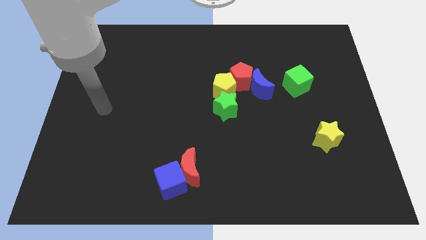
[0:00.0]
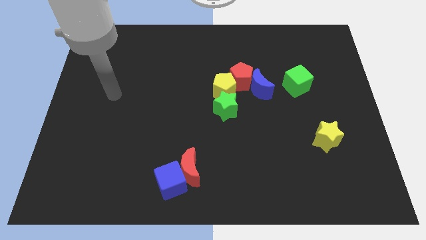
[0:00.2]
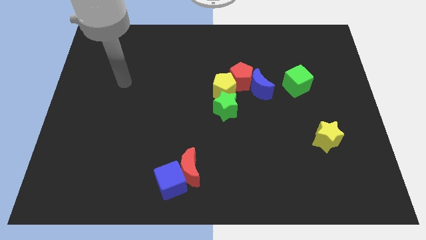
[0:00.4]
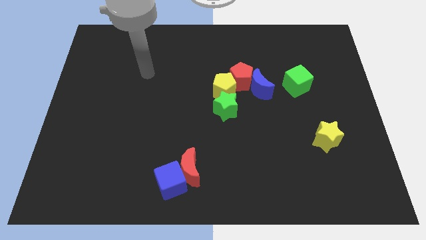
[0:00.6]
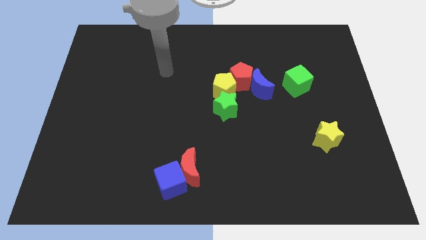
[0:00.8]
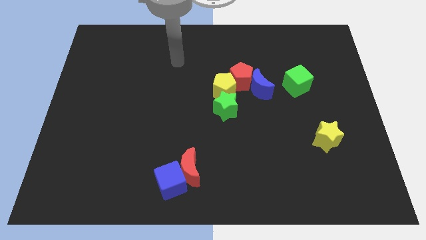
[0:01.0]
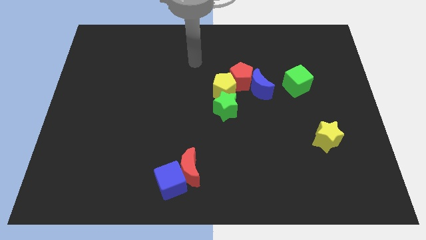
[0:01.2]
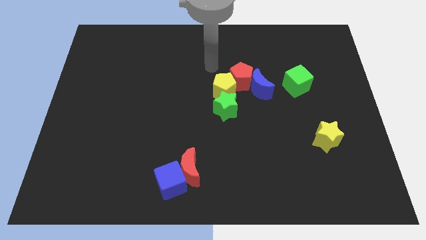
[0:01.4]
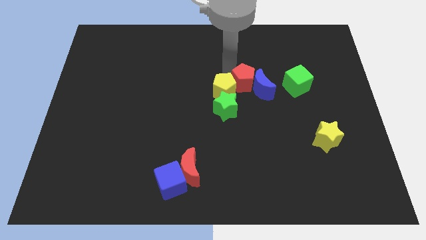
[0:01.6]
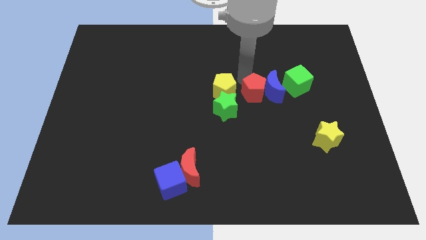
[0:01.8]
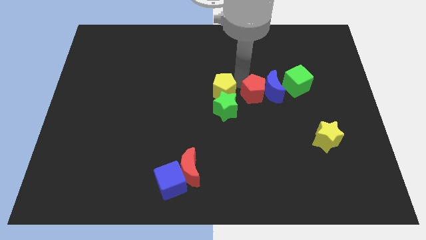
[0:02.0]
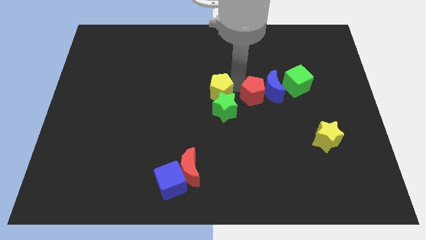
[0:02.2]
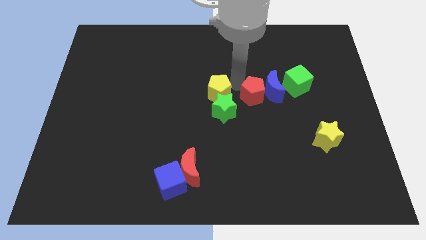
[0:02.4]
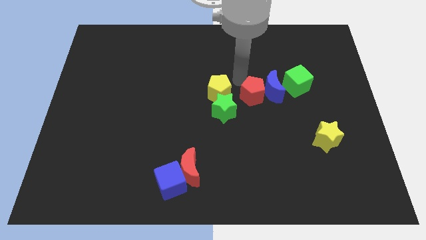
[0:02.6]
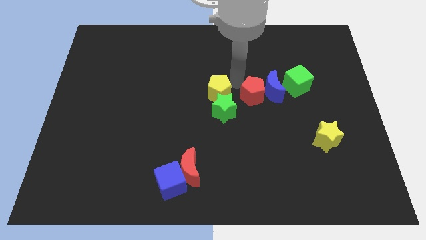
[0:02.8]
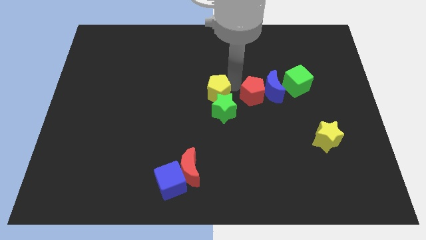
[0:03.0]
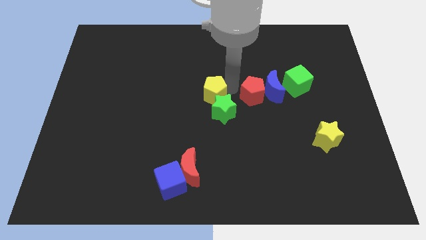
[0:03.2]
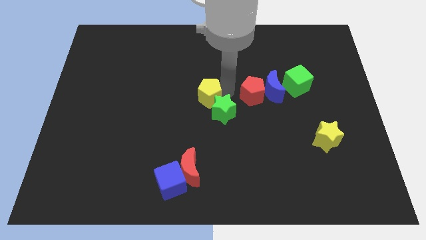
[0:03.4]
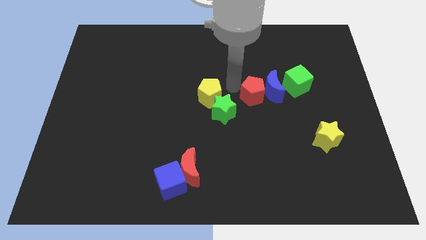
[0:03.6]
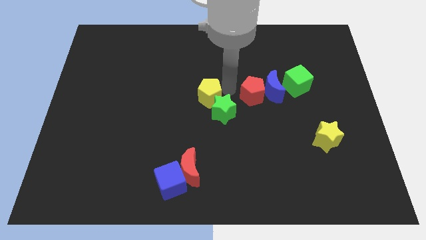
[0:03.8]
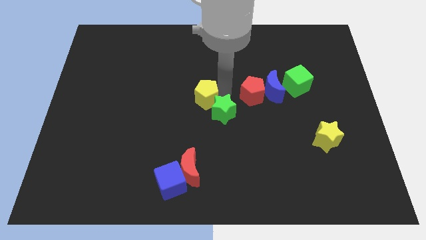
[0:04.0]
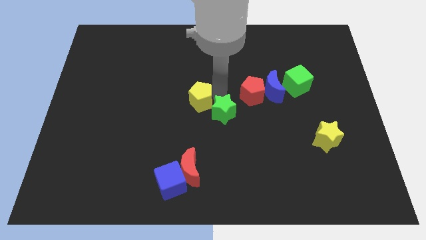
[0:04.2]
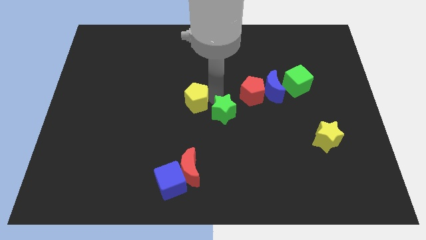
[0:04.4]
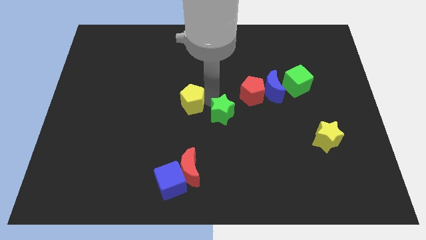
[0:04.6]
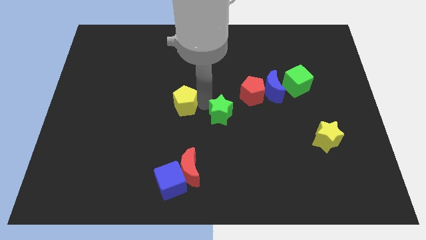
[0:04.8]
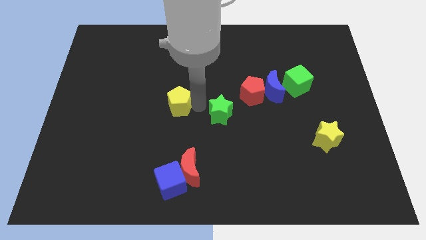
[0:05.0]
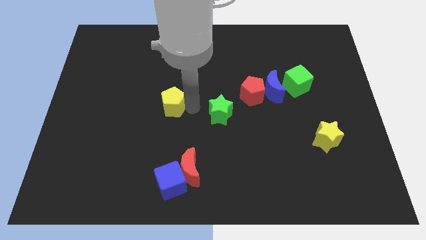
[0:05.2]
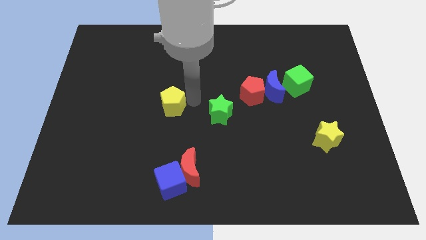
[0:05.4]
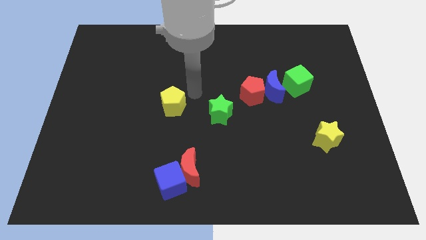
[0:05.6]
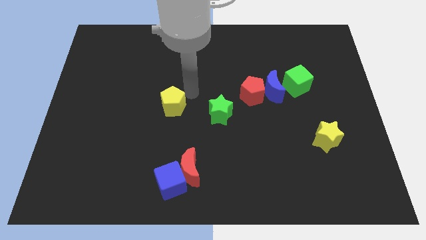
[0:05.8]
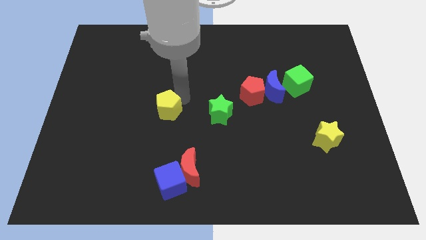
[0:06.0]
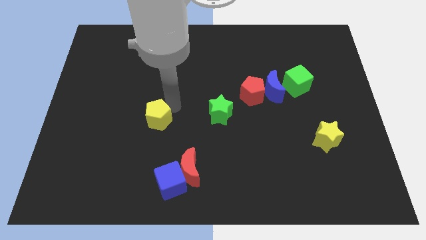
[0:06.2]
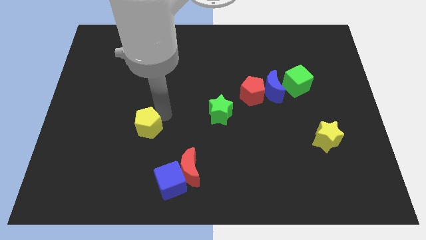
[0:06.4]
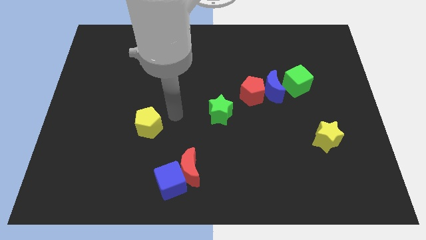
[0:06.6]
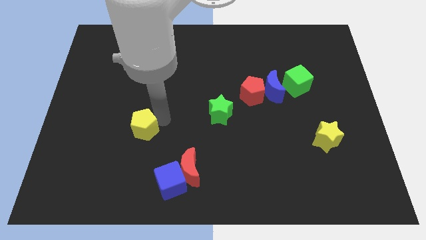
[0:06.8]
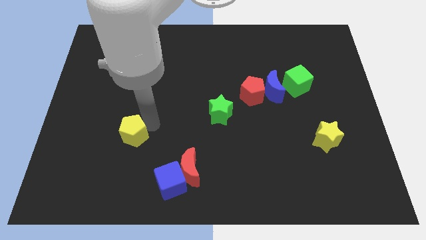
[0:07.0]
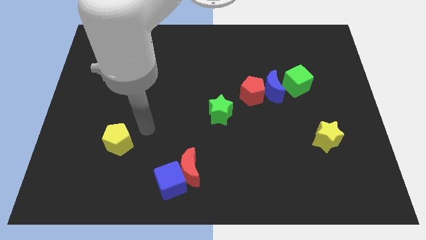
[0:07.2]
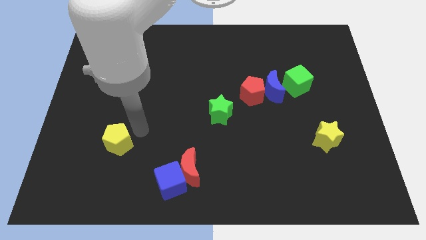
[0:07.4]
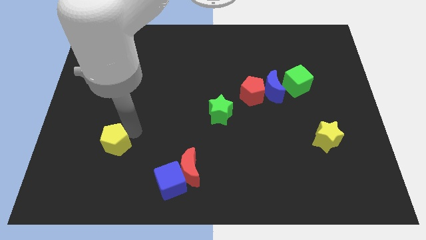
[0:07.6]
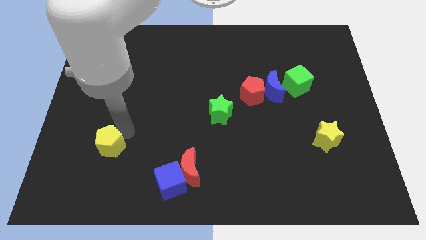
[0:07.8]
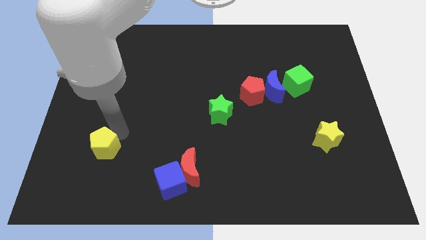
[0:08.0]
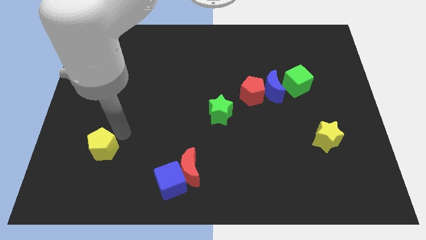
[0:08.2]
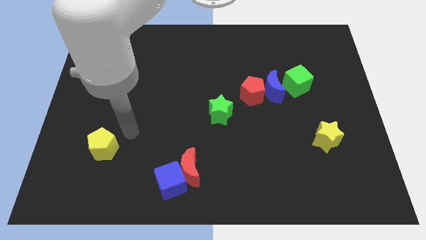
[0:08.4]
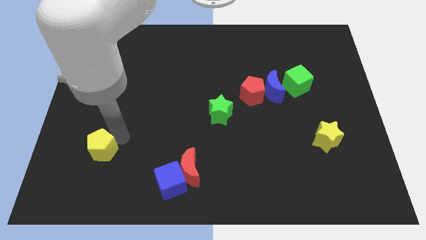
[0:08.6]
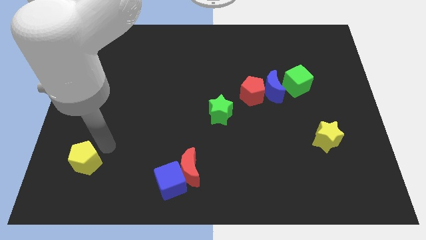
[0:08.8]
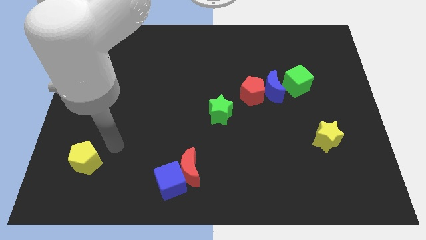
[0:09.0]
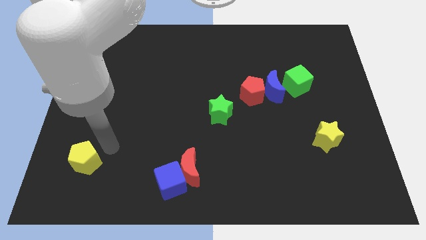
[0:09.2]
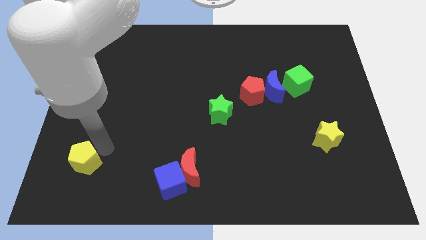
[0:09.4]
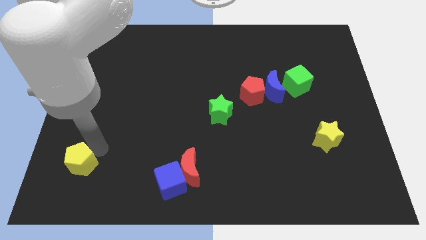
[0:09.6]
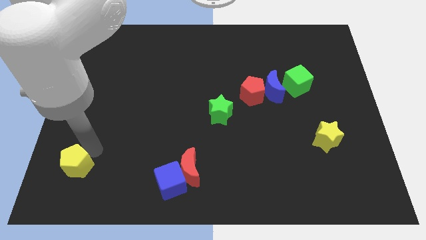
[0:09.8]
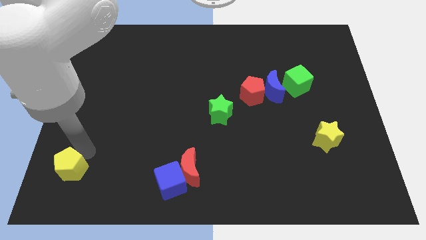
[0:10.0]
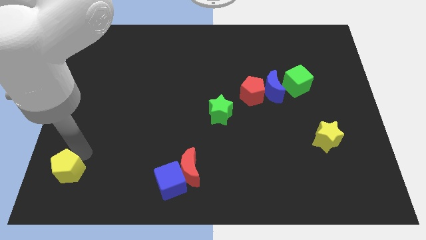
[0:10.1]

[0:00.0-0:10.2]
push the yellow pentagon to the bottom left of the board

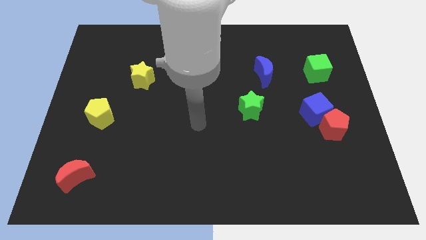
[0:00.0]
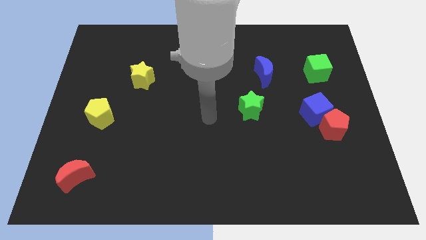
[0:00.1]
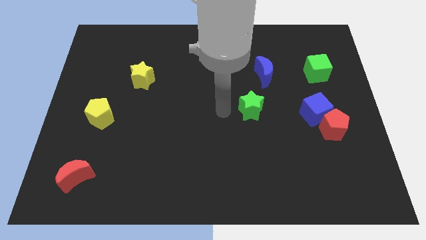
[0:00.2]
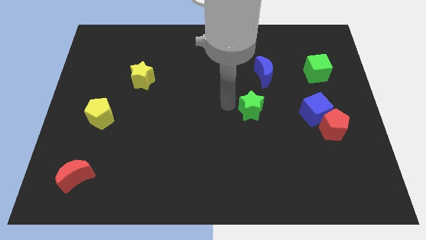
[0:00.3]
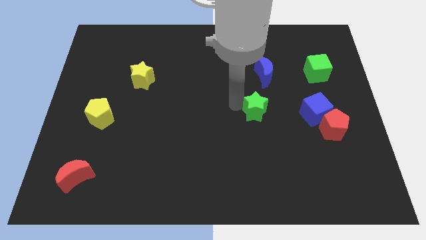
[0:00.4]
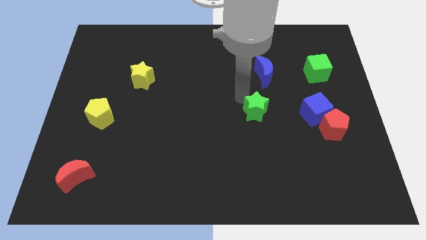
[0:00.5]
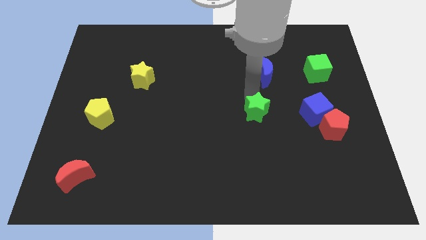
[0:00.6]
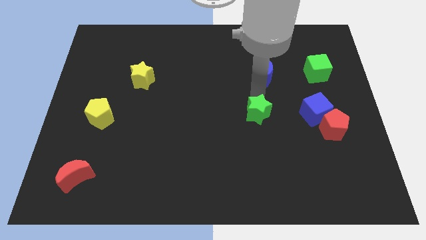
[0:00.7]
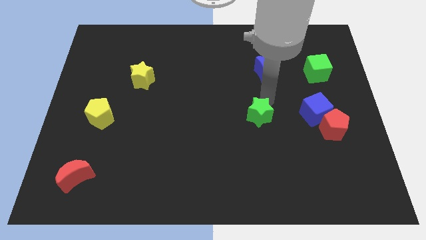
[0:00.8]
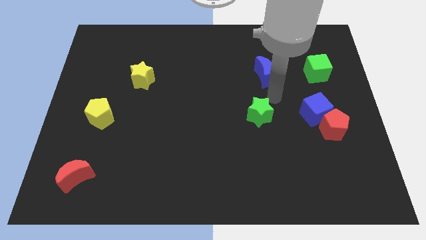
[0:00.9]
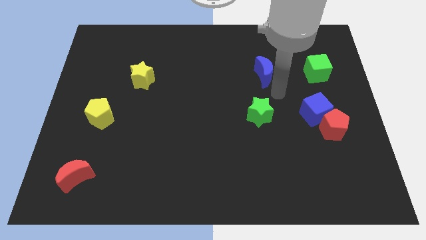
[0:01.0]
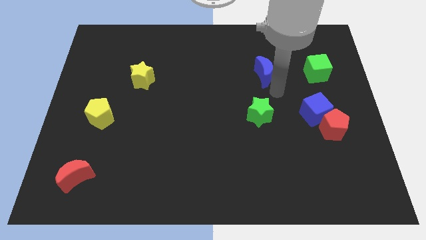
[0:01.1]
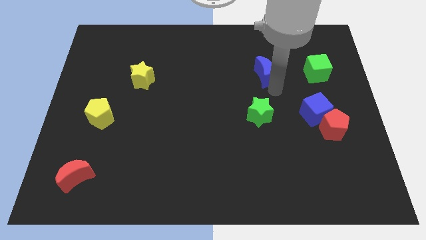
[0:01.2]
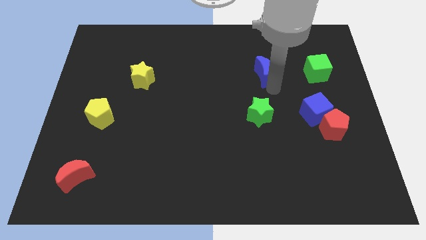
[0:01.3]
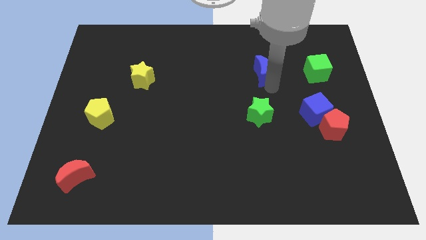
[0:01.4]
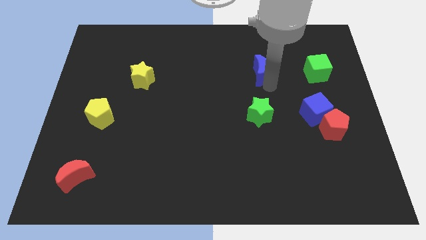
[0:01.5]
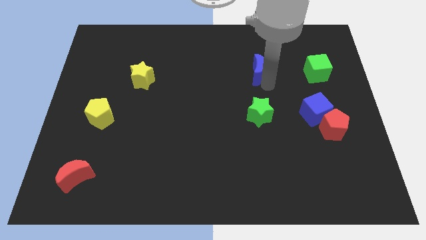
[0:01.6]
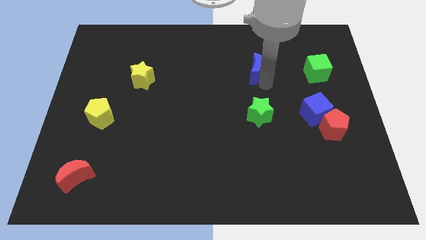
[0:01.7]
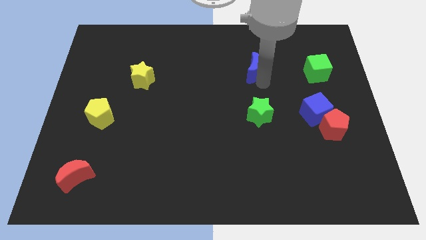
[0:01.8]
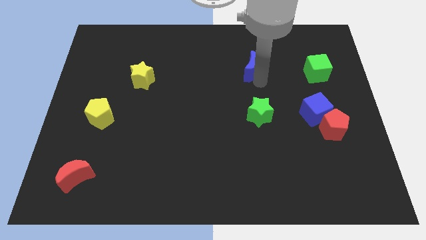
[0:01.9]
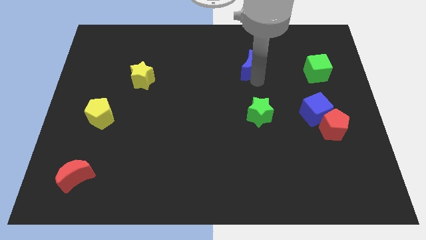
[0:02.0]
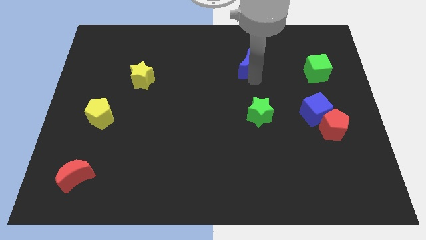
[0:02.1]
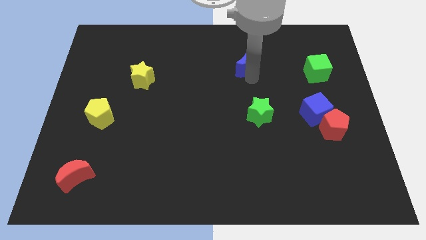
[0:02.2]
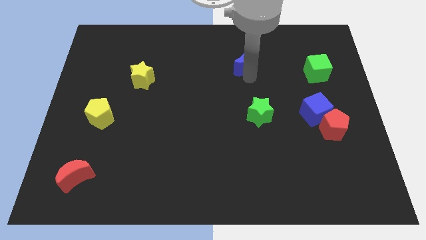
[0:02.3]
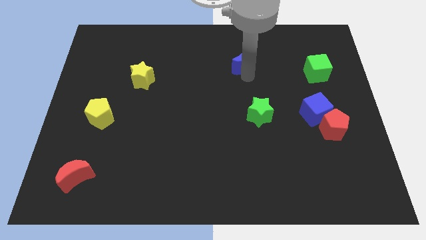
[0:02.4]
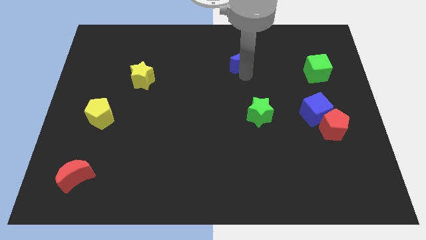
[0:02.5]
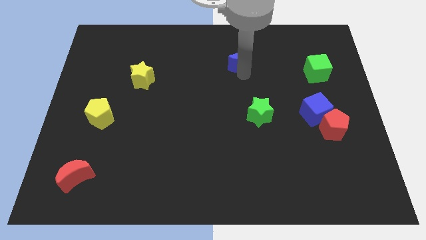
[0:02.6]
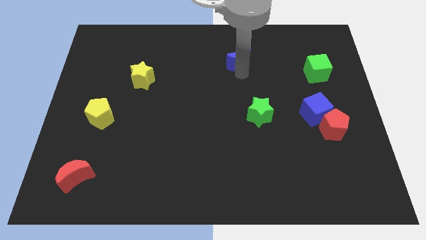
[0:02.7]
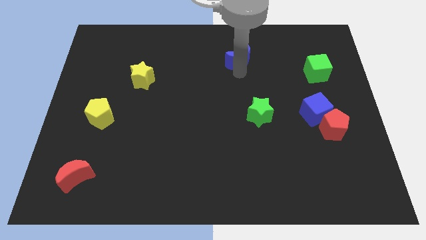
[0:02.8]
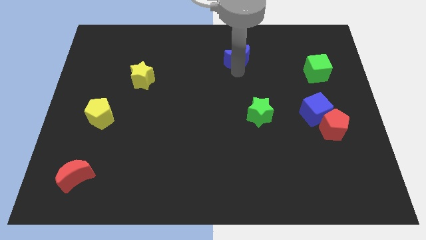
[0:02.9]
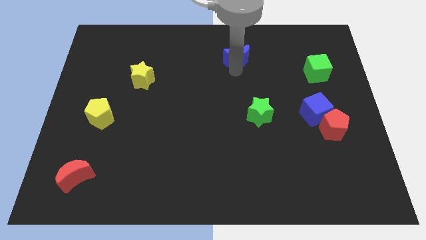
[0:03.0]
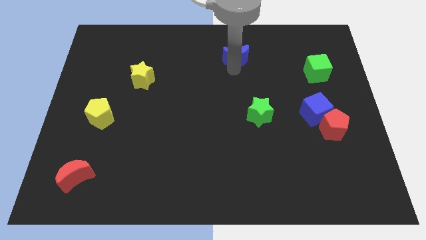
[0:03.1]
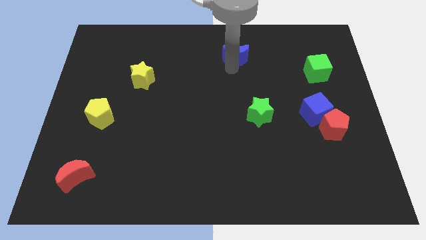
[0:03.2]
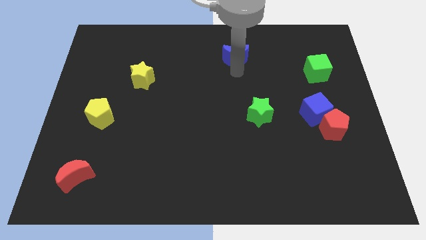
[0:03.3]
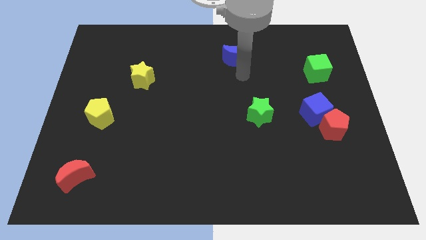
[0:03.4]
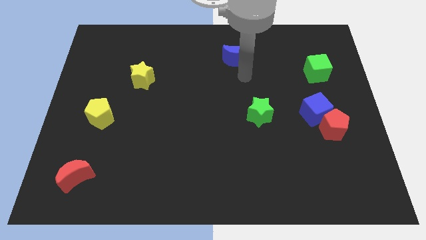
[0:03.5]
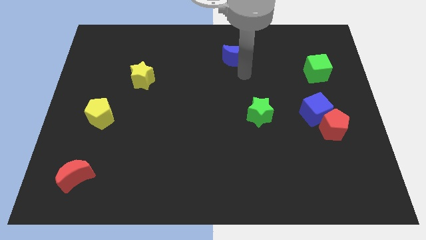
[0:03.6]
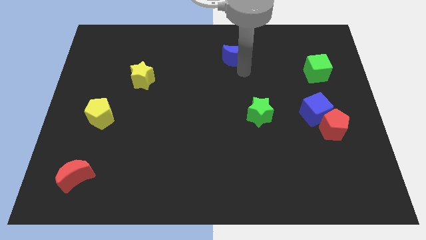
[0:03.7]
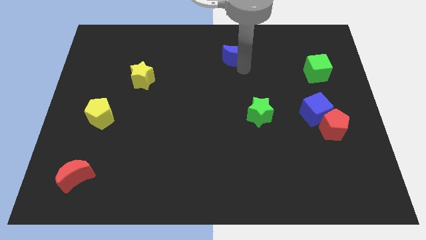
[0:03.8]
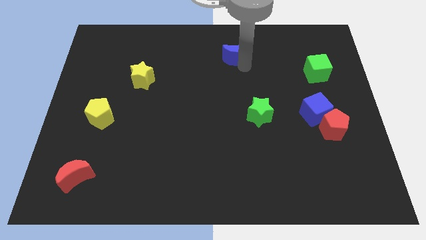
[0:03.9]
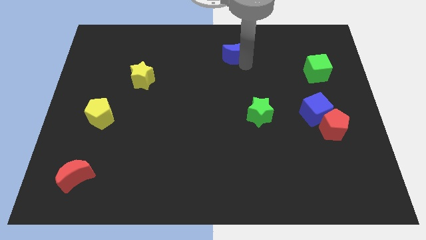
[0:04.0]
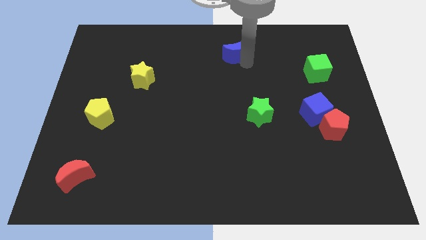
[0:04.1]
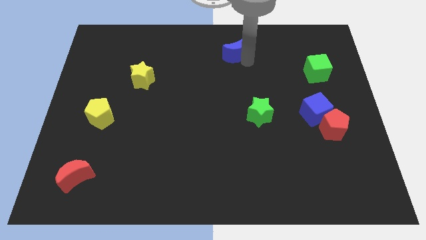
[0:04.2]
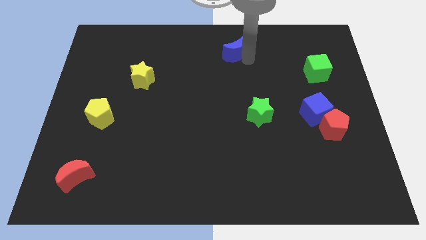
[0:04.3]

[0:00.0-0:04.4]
put the blue moon to the towards your base
